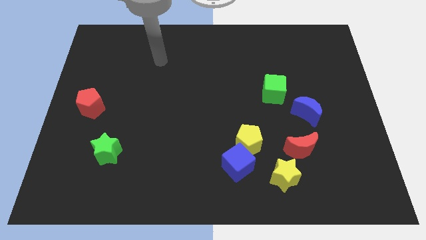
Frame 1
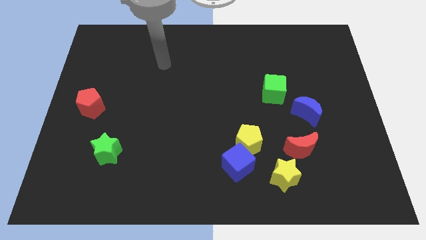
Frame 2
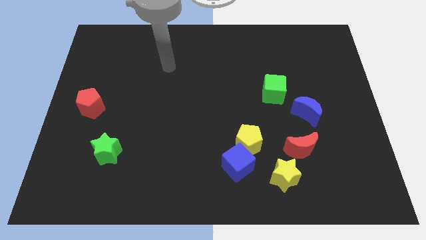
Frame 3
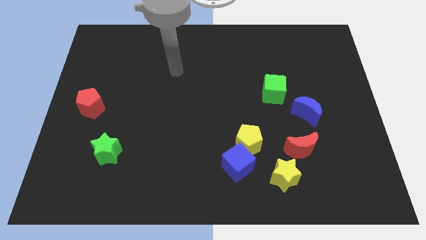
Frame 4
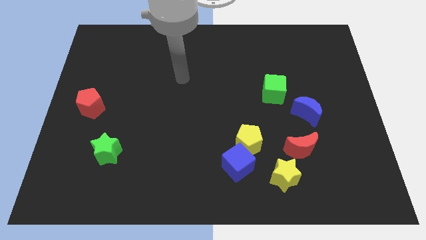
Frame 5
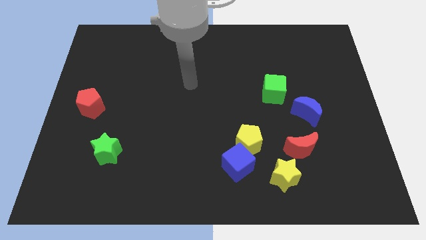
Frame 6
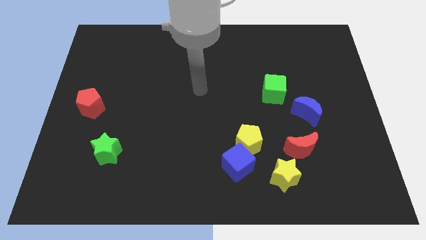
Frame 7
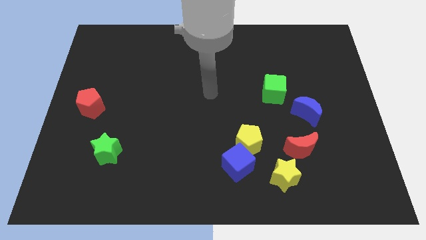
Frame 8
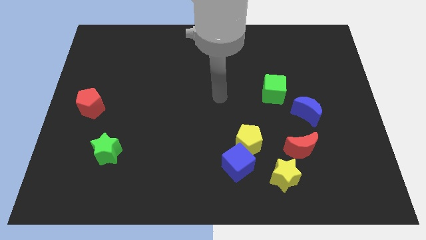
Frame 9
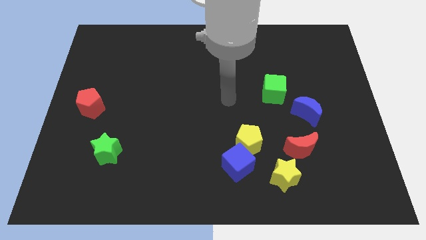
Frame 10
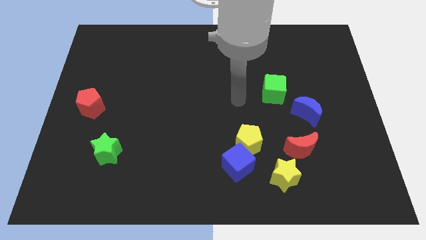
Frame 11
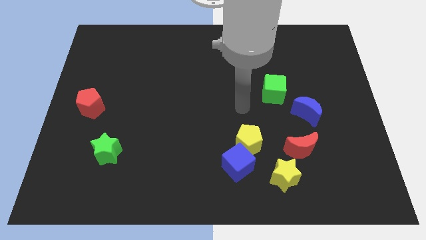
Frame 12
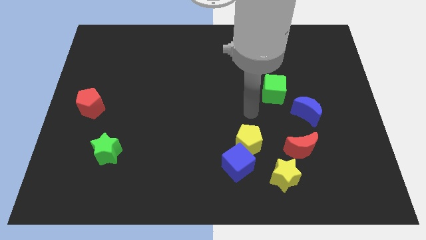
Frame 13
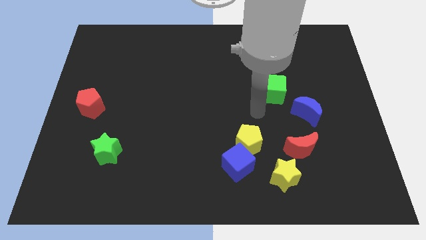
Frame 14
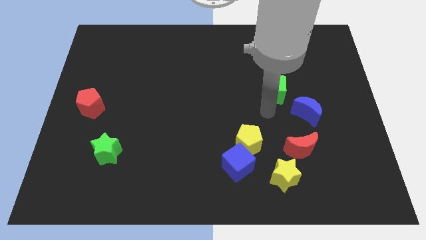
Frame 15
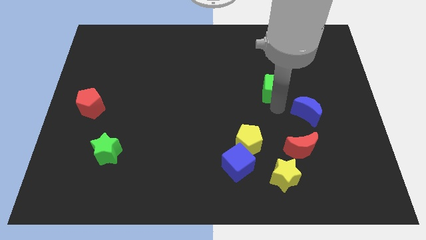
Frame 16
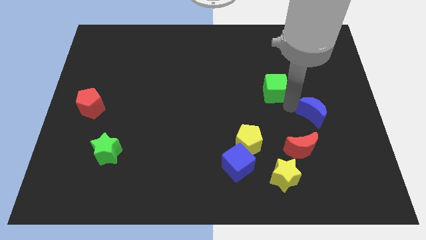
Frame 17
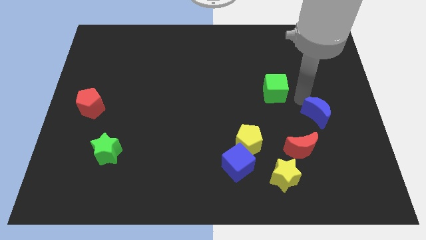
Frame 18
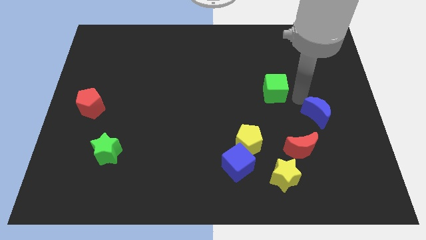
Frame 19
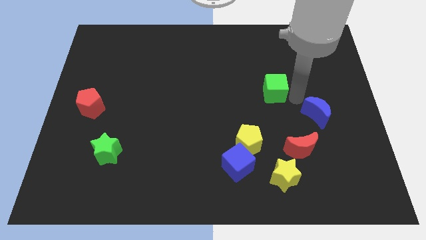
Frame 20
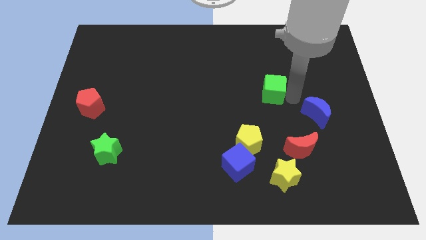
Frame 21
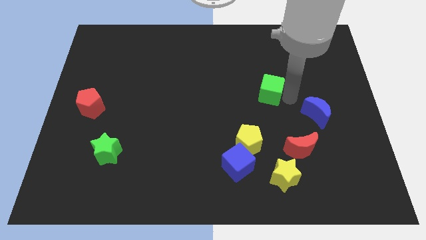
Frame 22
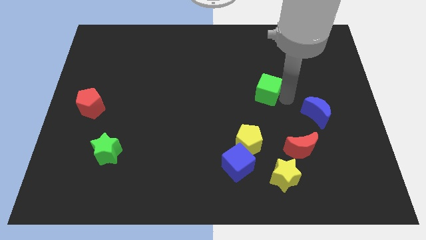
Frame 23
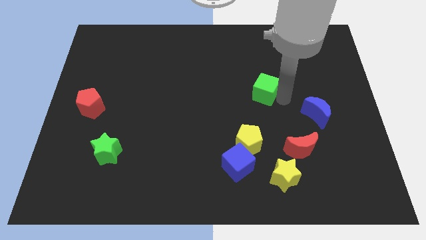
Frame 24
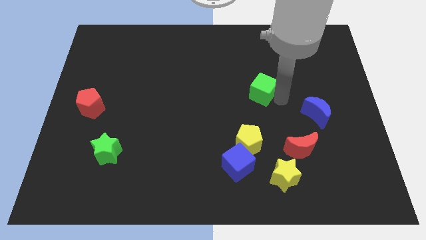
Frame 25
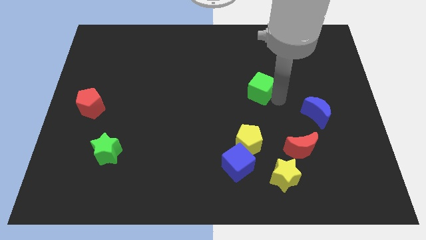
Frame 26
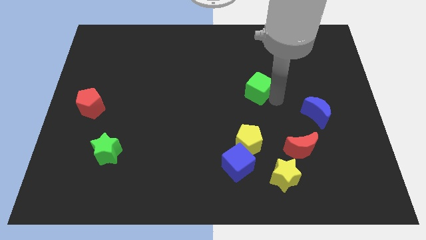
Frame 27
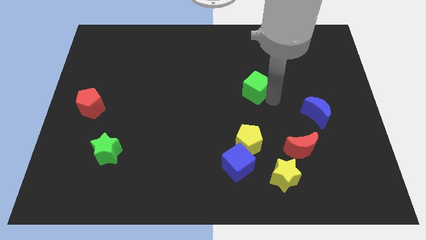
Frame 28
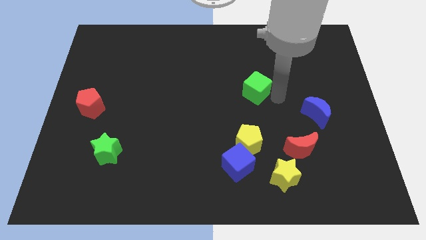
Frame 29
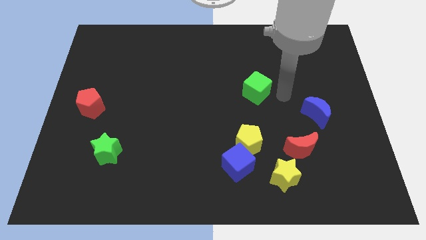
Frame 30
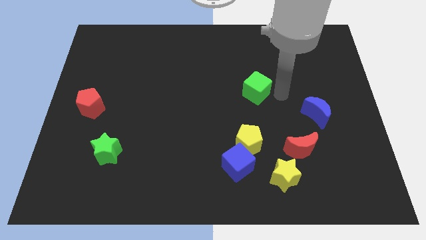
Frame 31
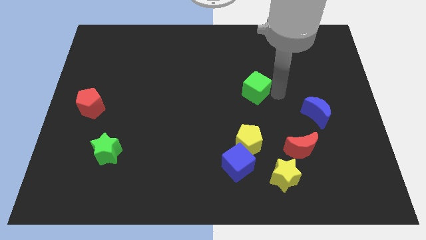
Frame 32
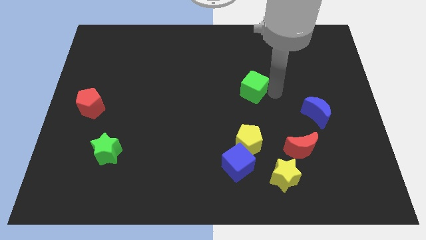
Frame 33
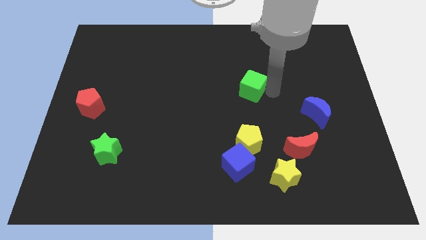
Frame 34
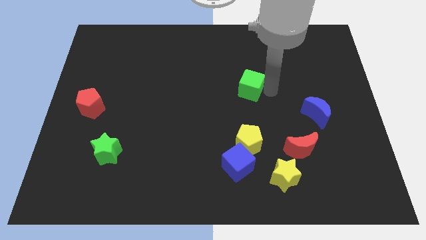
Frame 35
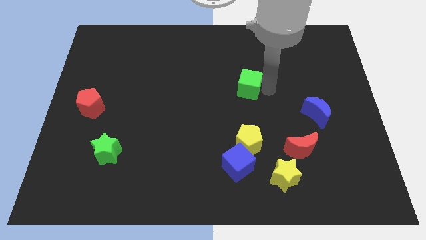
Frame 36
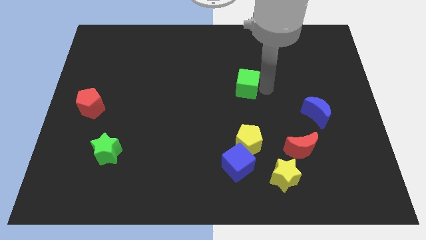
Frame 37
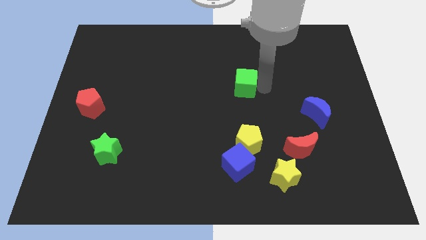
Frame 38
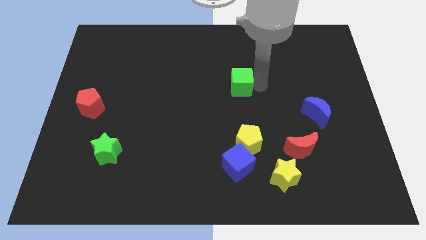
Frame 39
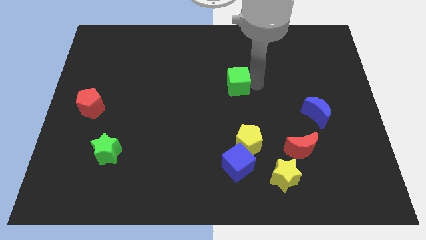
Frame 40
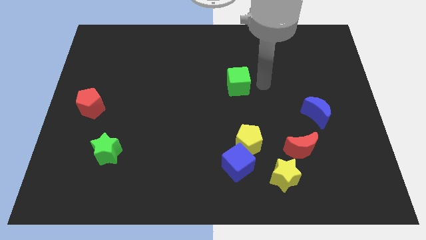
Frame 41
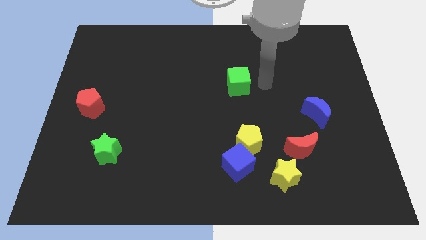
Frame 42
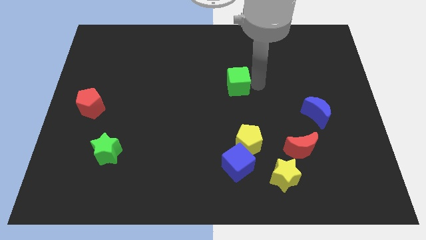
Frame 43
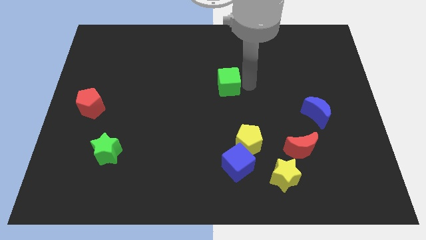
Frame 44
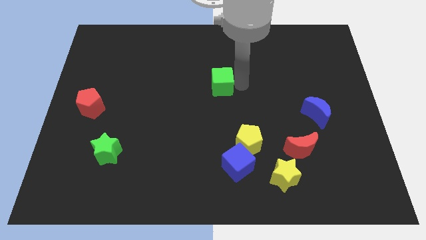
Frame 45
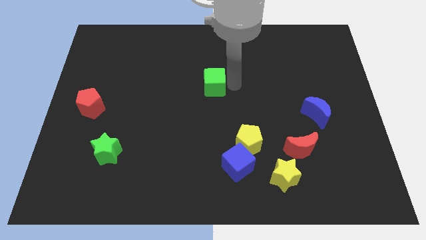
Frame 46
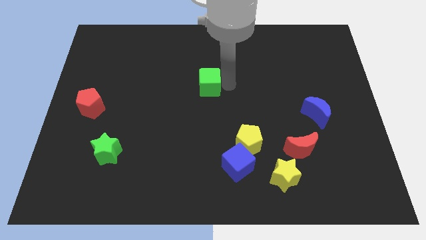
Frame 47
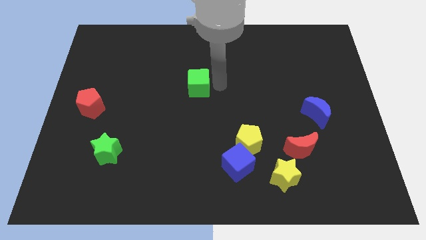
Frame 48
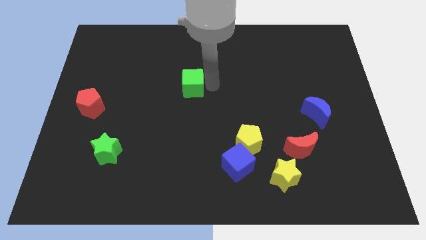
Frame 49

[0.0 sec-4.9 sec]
move the green cube left

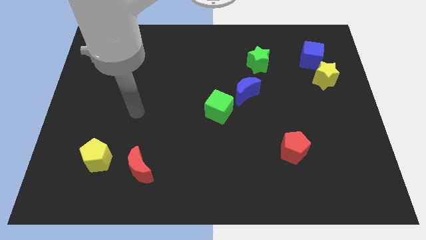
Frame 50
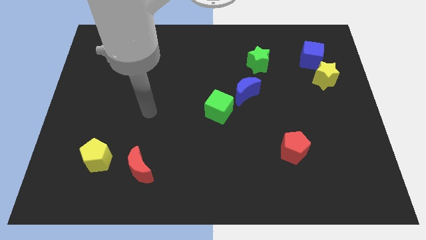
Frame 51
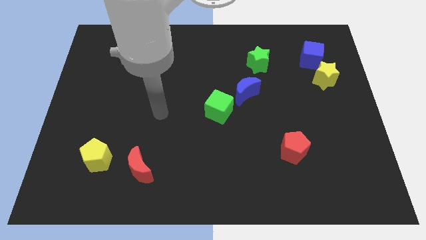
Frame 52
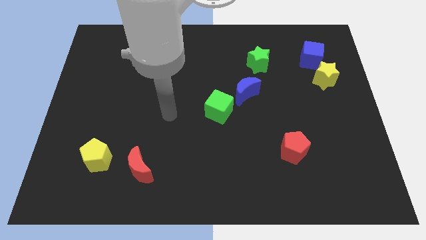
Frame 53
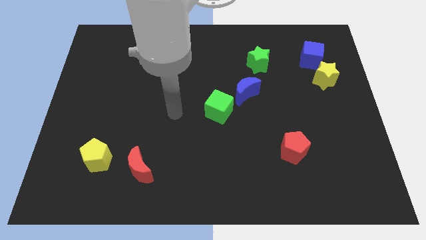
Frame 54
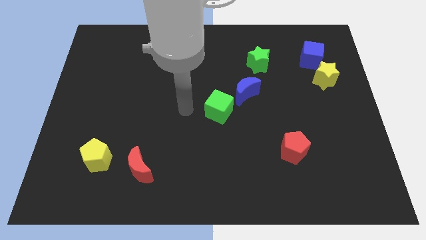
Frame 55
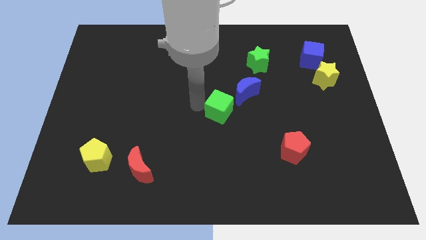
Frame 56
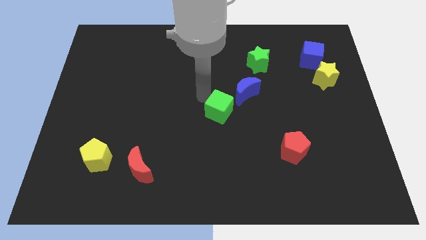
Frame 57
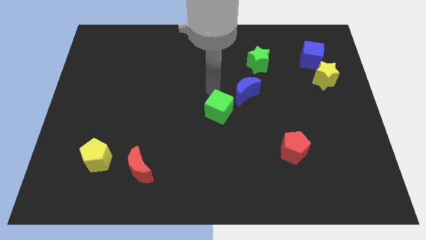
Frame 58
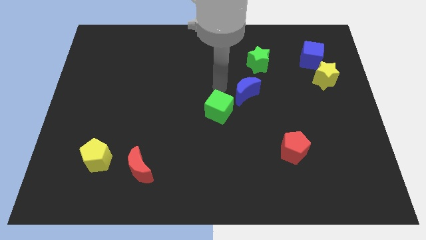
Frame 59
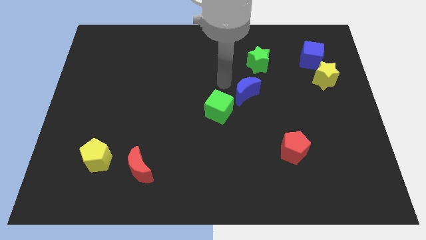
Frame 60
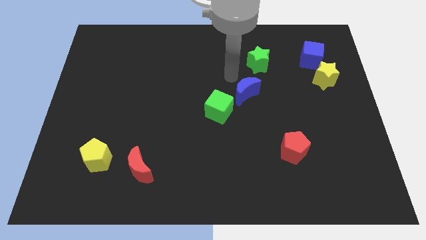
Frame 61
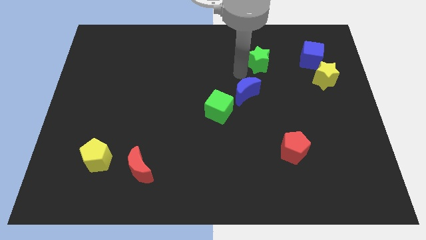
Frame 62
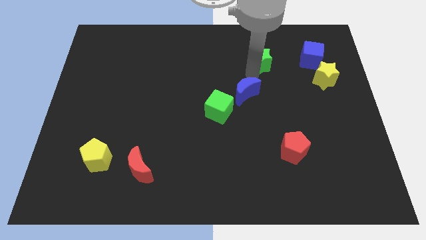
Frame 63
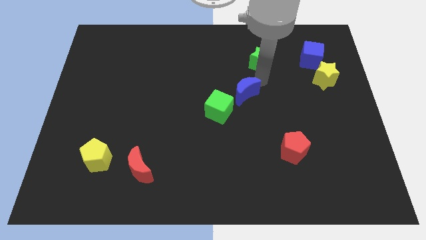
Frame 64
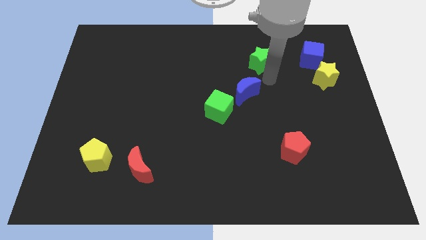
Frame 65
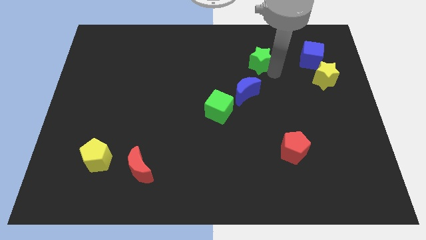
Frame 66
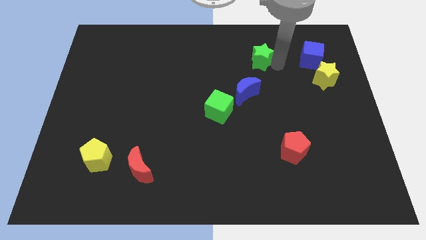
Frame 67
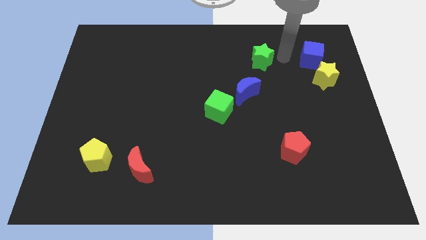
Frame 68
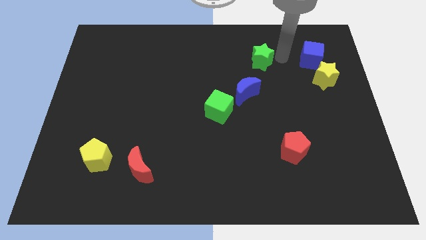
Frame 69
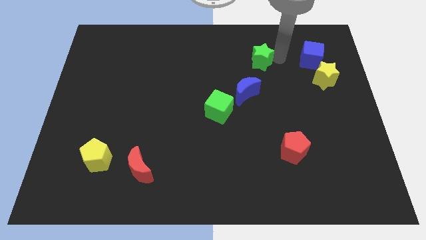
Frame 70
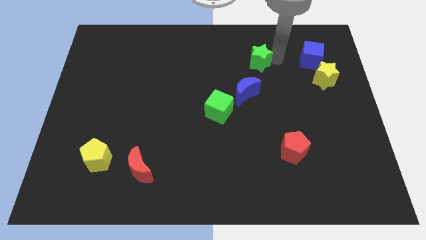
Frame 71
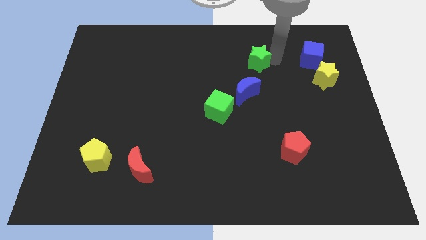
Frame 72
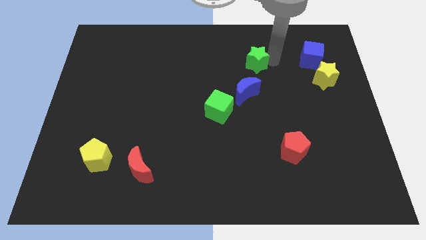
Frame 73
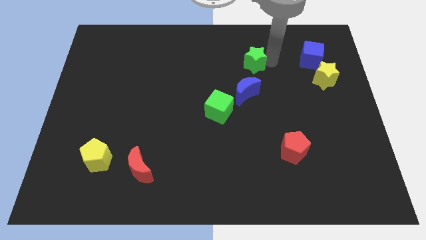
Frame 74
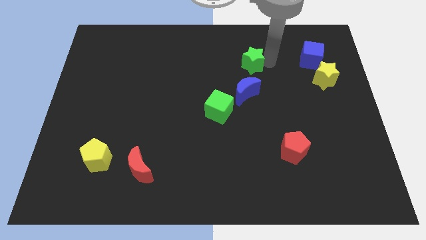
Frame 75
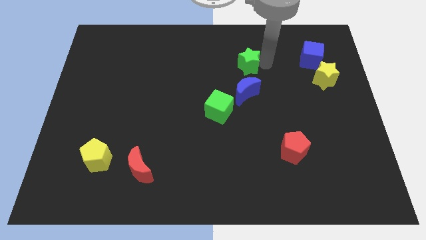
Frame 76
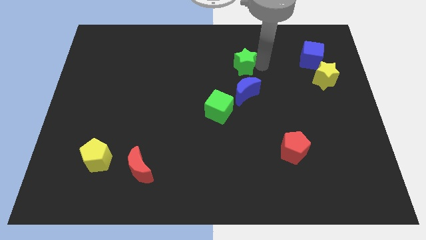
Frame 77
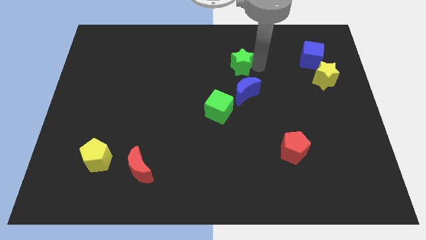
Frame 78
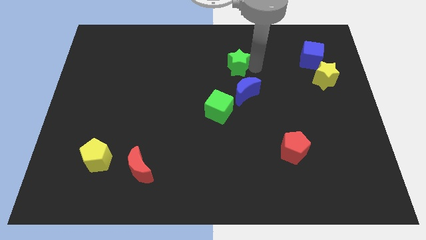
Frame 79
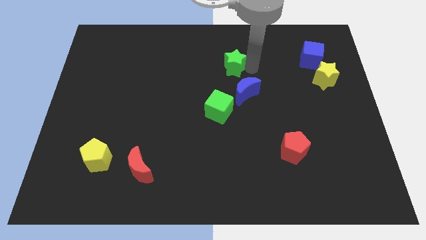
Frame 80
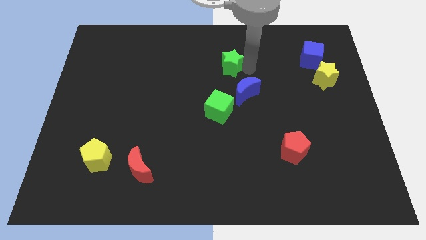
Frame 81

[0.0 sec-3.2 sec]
slightly move the green star to the left

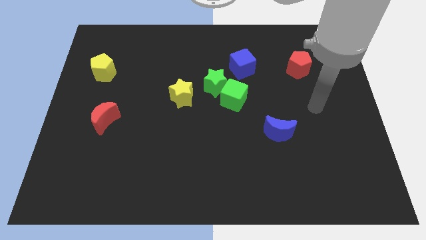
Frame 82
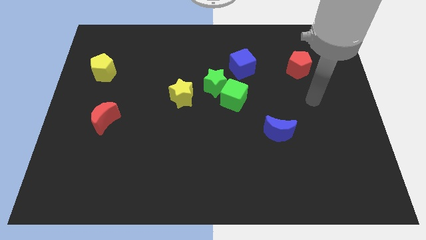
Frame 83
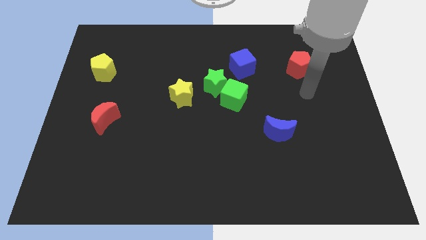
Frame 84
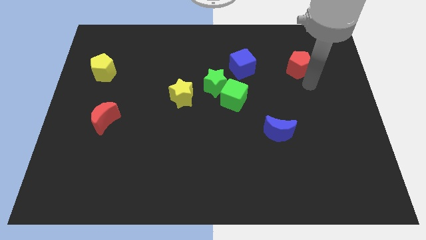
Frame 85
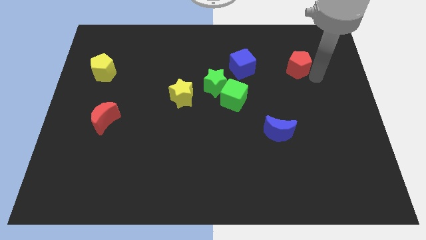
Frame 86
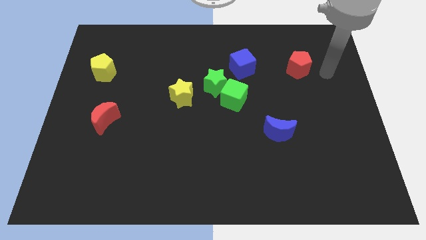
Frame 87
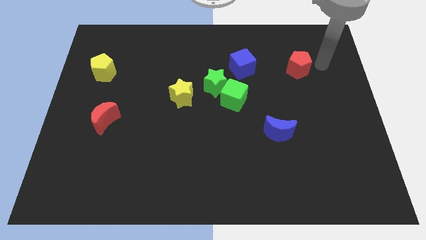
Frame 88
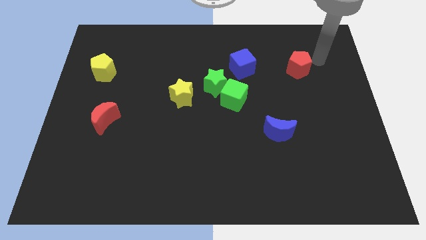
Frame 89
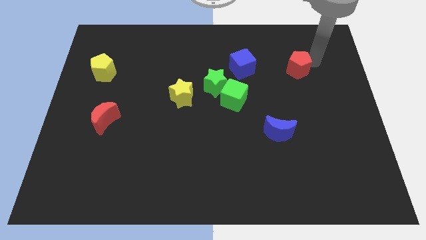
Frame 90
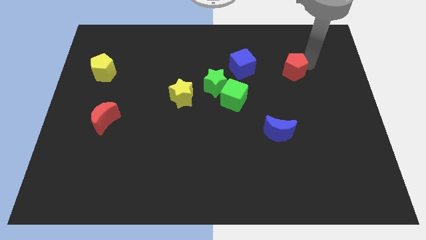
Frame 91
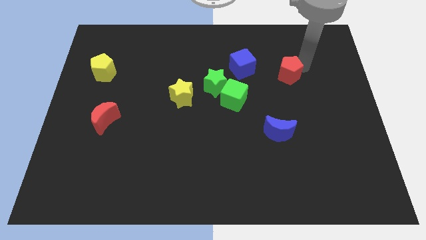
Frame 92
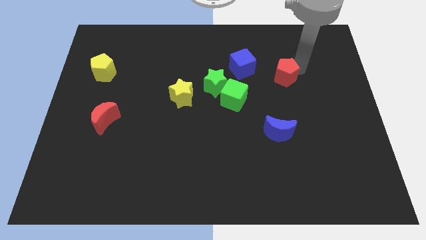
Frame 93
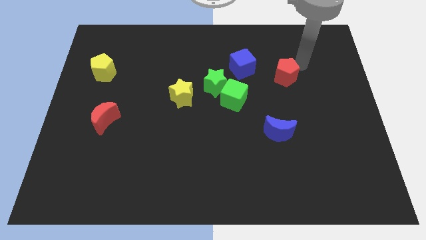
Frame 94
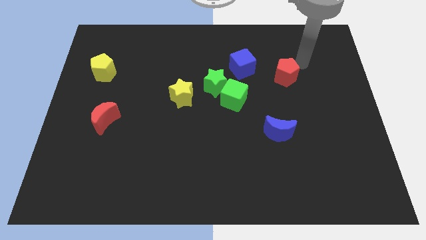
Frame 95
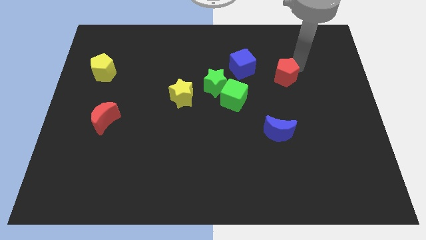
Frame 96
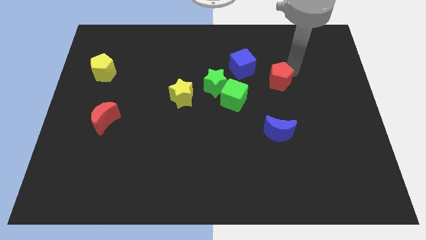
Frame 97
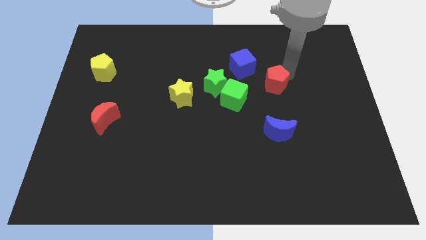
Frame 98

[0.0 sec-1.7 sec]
push the red pentagon slightly diagonally down and to the left
